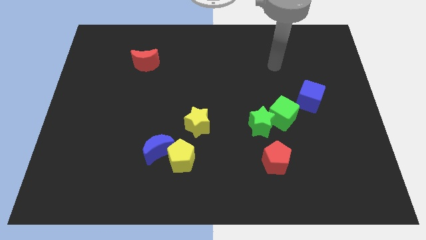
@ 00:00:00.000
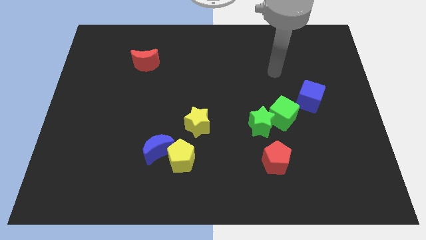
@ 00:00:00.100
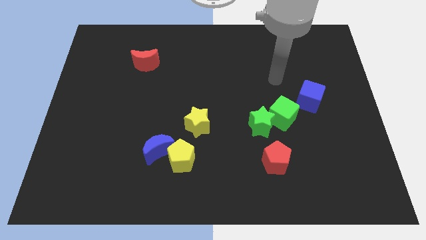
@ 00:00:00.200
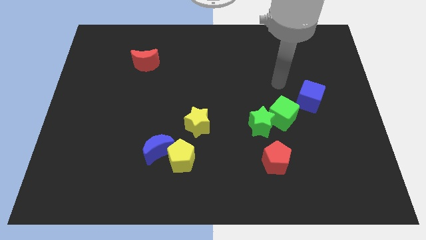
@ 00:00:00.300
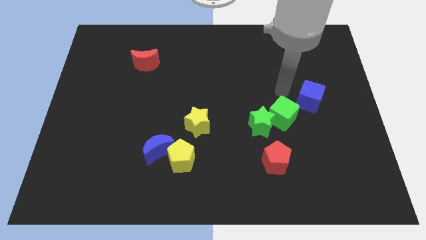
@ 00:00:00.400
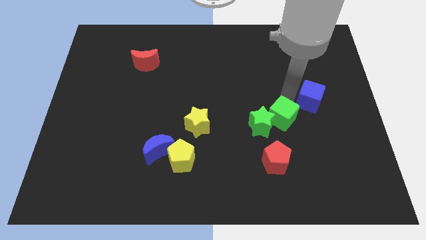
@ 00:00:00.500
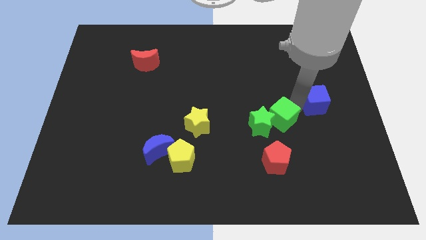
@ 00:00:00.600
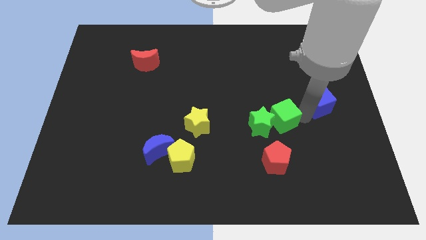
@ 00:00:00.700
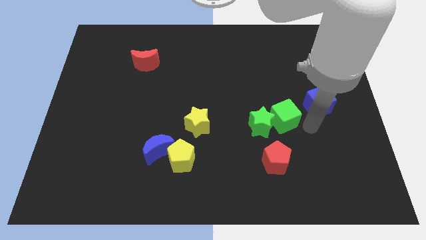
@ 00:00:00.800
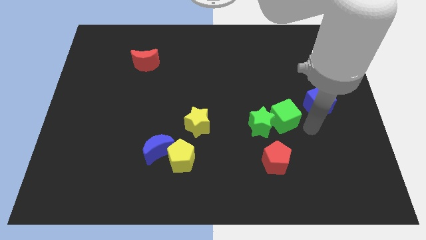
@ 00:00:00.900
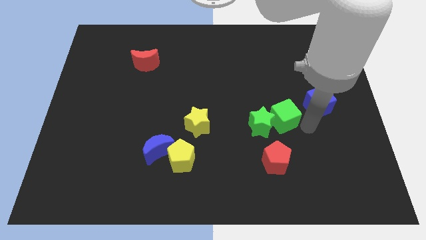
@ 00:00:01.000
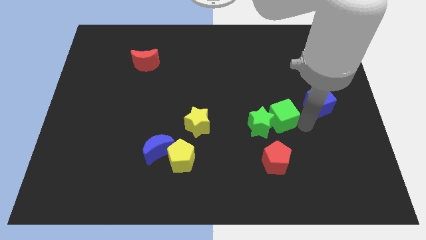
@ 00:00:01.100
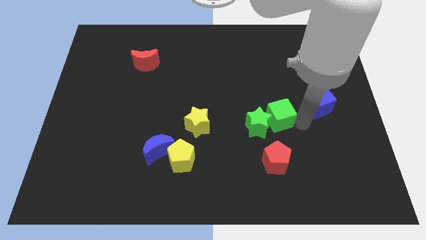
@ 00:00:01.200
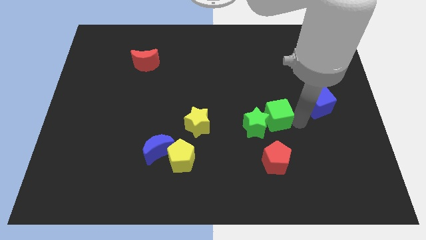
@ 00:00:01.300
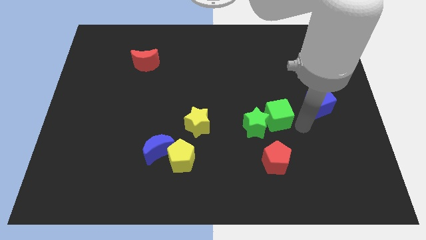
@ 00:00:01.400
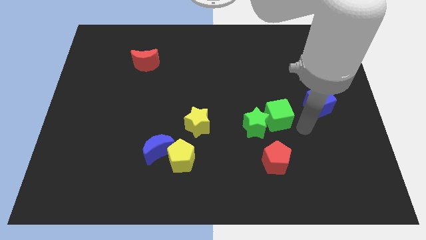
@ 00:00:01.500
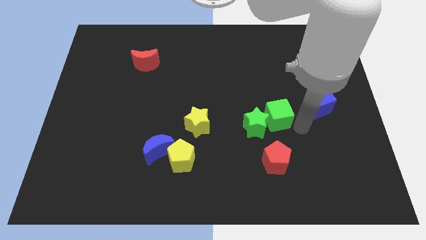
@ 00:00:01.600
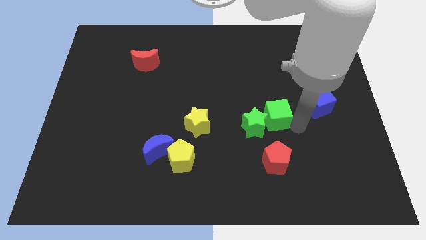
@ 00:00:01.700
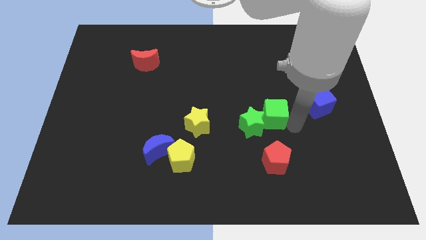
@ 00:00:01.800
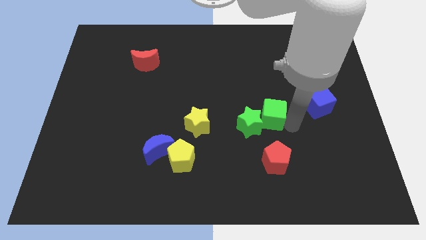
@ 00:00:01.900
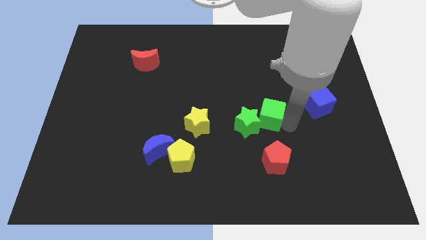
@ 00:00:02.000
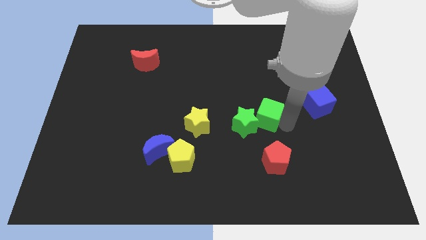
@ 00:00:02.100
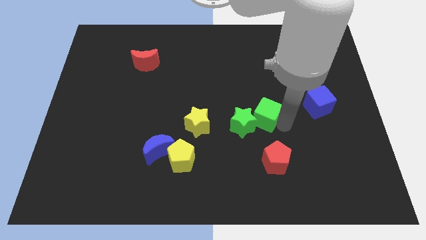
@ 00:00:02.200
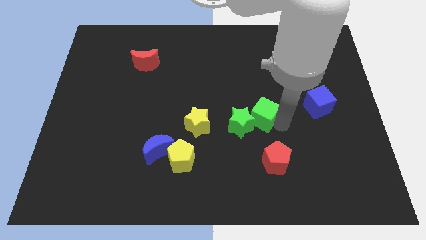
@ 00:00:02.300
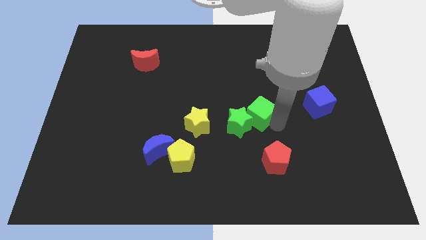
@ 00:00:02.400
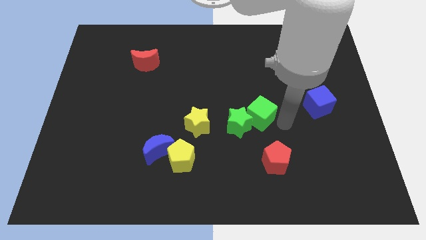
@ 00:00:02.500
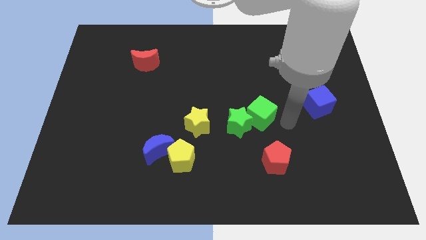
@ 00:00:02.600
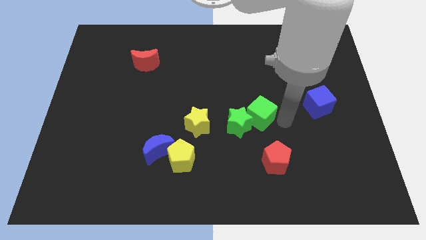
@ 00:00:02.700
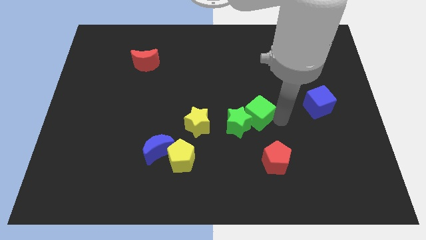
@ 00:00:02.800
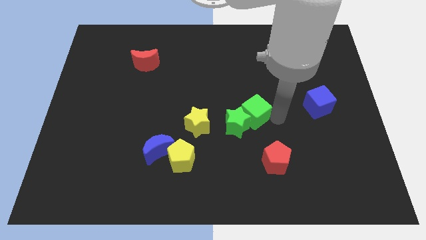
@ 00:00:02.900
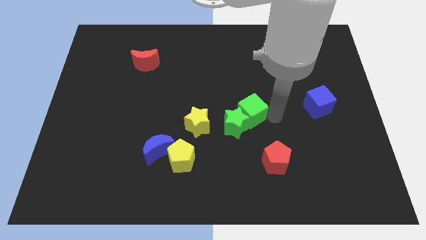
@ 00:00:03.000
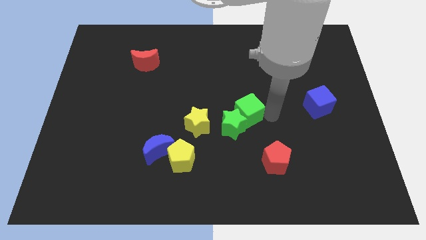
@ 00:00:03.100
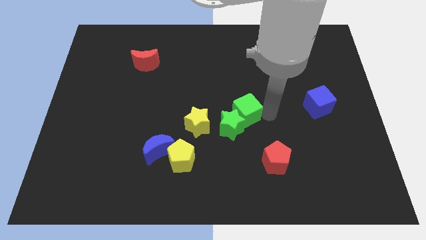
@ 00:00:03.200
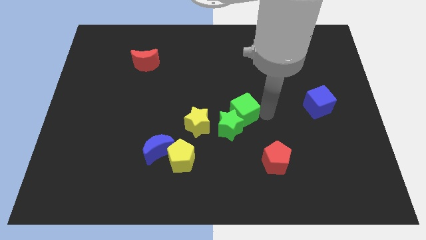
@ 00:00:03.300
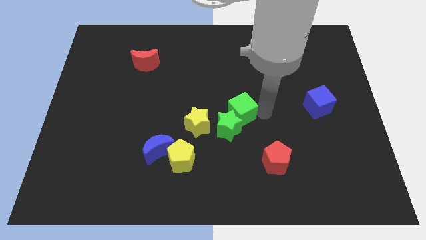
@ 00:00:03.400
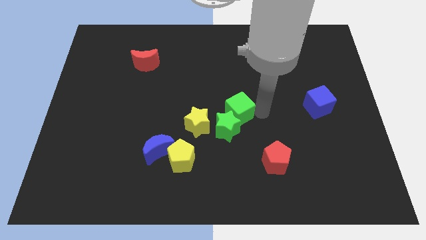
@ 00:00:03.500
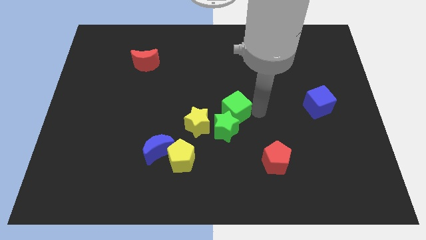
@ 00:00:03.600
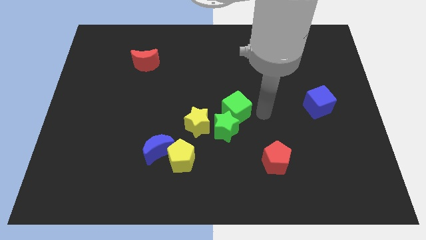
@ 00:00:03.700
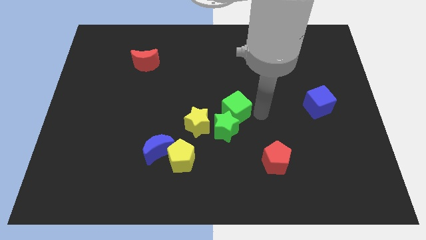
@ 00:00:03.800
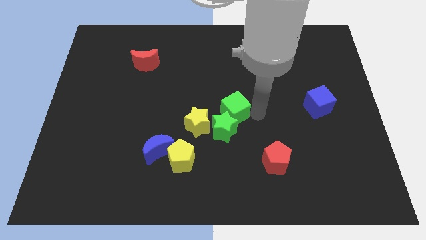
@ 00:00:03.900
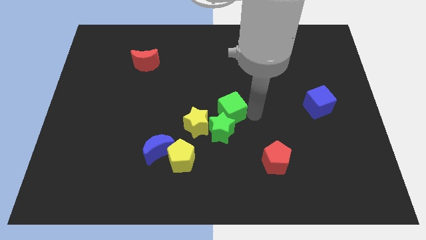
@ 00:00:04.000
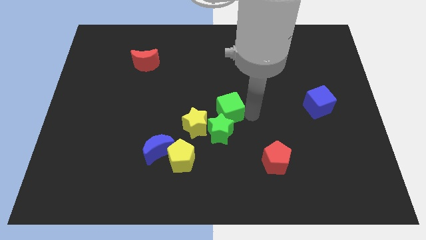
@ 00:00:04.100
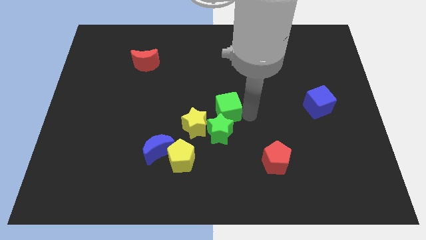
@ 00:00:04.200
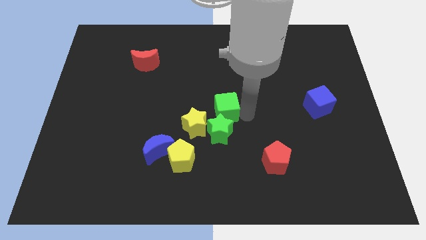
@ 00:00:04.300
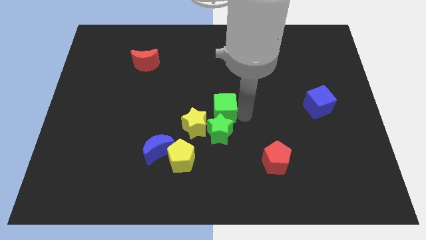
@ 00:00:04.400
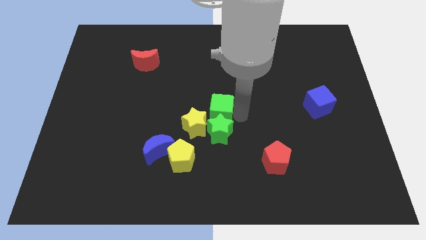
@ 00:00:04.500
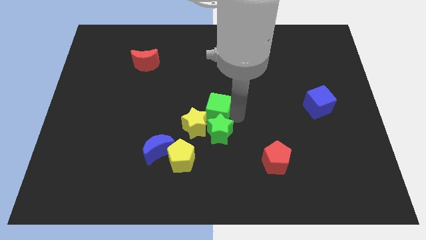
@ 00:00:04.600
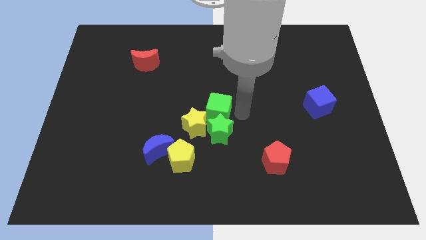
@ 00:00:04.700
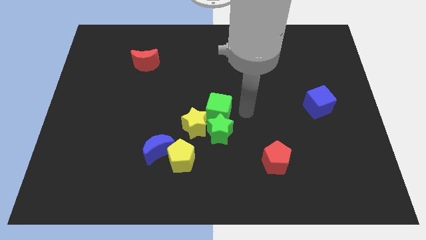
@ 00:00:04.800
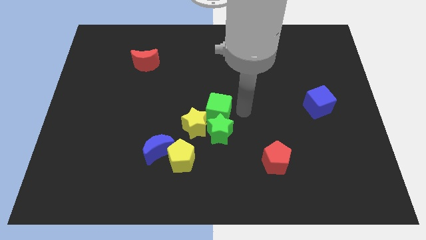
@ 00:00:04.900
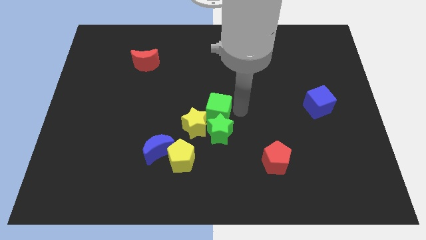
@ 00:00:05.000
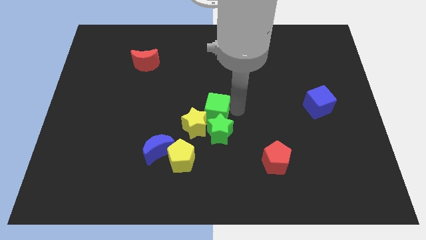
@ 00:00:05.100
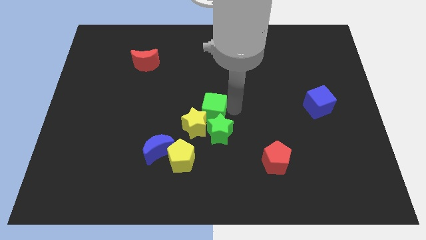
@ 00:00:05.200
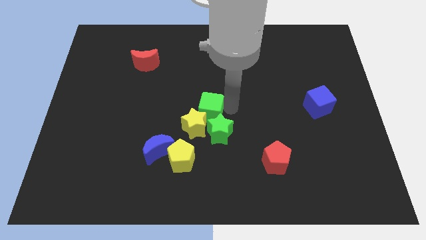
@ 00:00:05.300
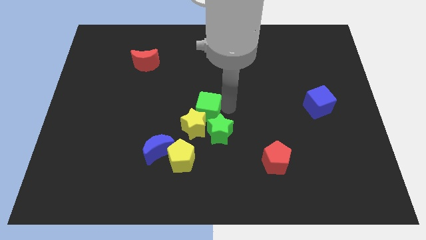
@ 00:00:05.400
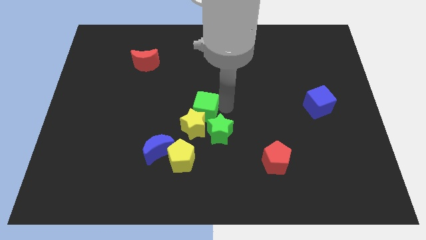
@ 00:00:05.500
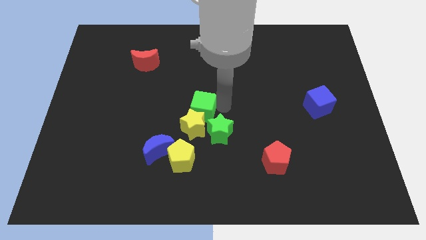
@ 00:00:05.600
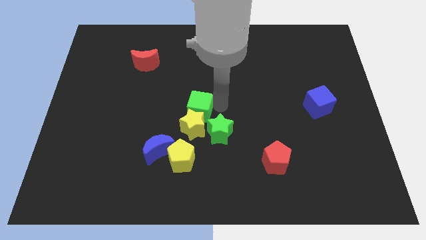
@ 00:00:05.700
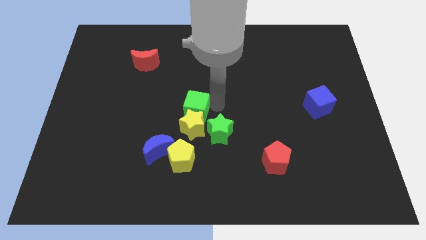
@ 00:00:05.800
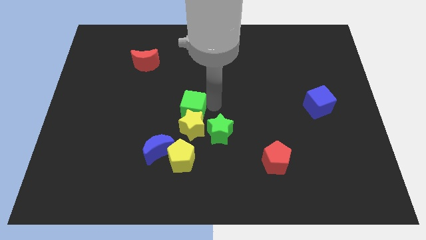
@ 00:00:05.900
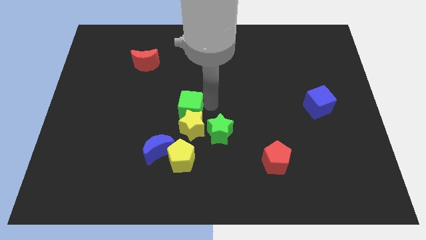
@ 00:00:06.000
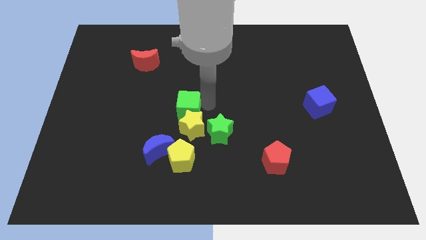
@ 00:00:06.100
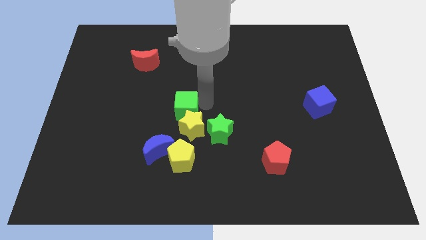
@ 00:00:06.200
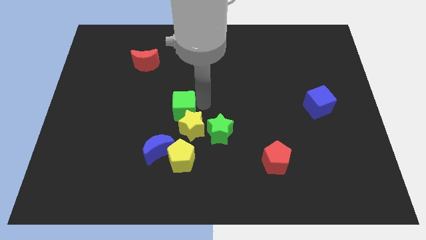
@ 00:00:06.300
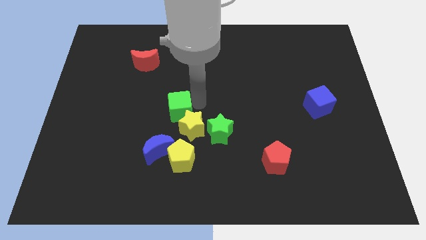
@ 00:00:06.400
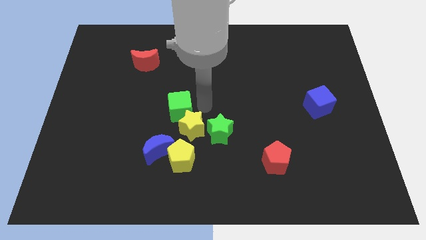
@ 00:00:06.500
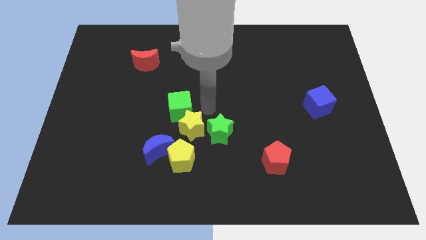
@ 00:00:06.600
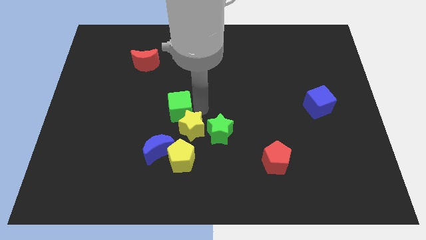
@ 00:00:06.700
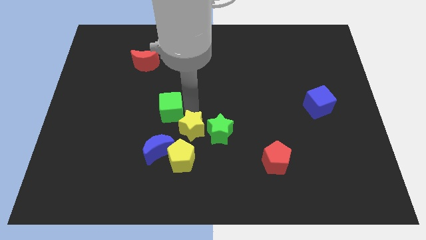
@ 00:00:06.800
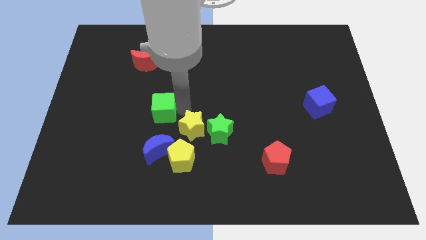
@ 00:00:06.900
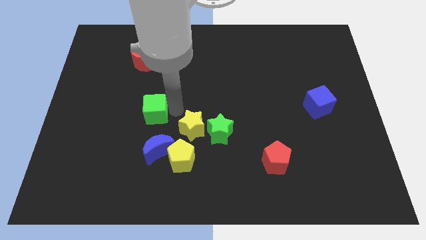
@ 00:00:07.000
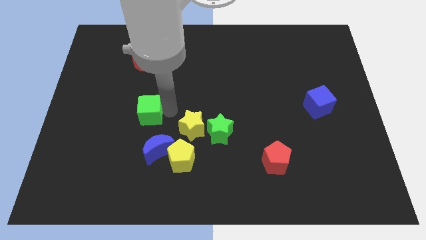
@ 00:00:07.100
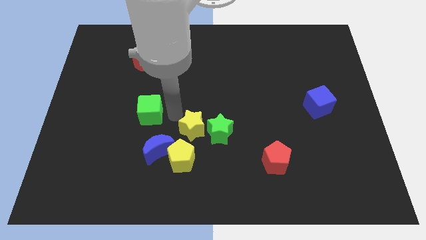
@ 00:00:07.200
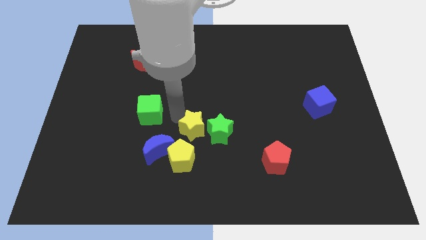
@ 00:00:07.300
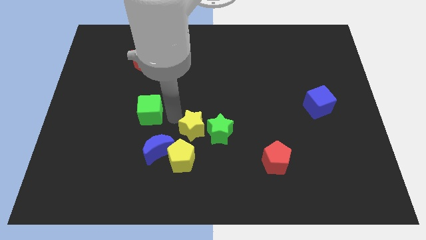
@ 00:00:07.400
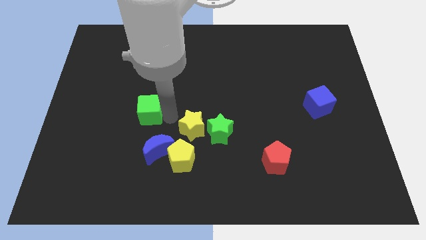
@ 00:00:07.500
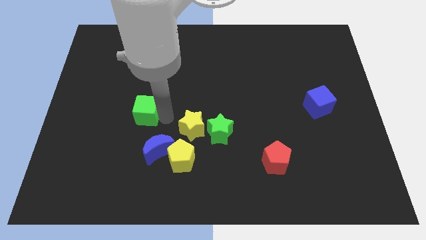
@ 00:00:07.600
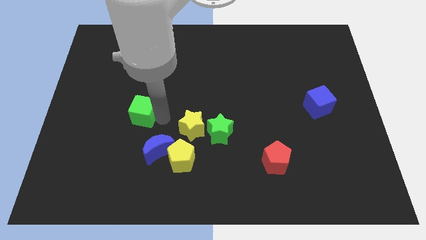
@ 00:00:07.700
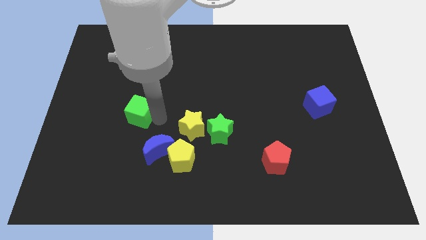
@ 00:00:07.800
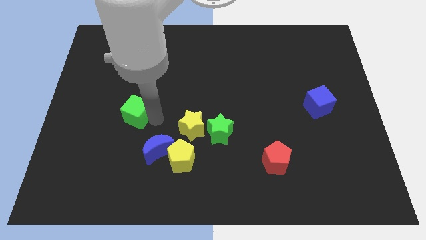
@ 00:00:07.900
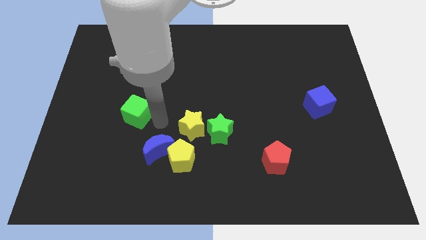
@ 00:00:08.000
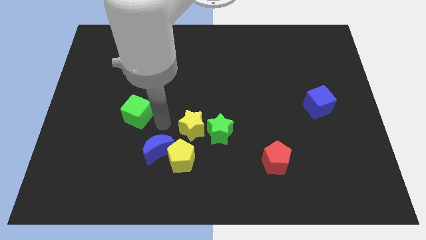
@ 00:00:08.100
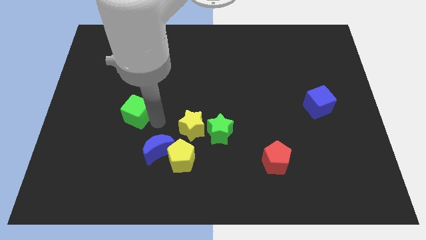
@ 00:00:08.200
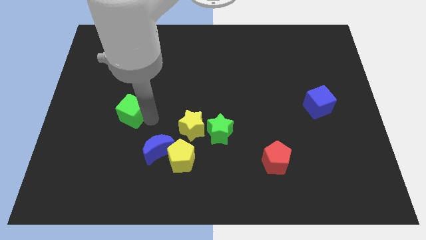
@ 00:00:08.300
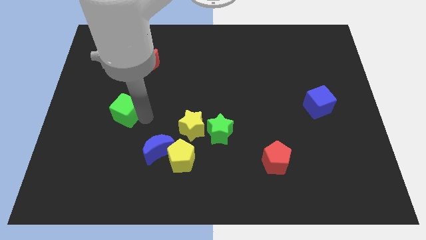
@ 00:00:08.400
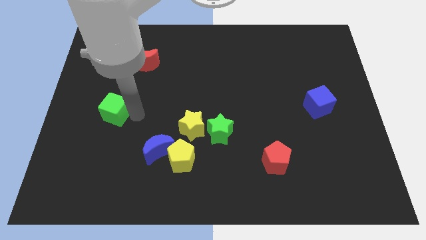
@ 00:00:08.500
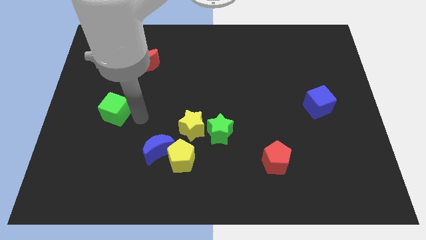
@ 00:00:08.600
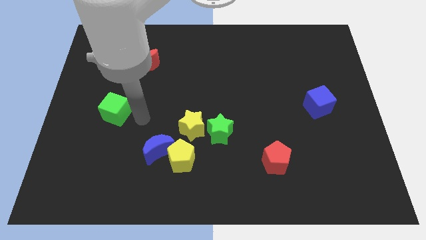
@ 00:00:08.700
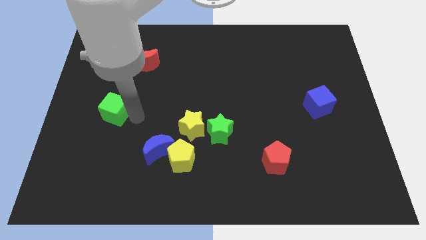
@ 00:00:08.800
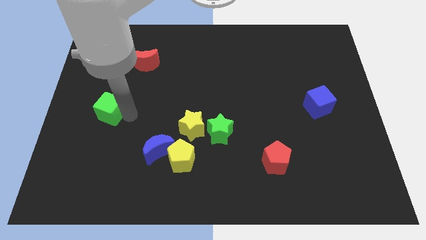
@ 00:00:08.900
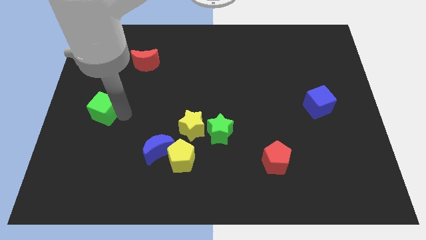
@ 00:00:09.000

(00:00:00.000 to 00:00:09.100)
put the green cube to the center left
